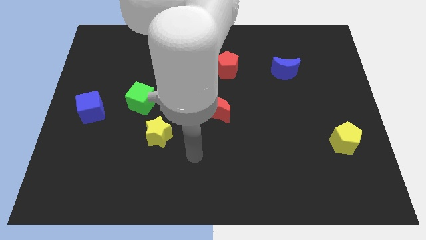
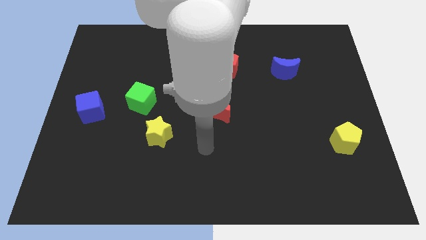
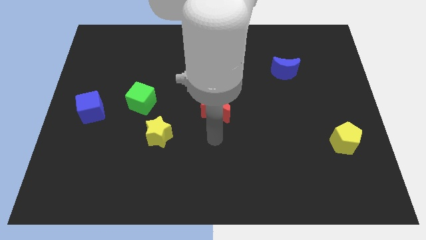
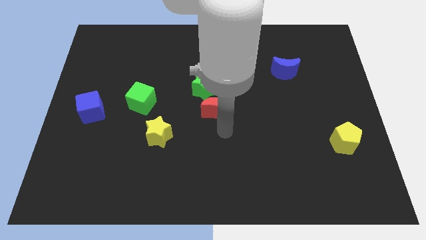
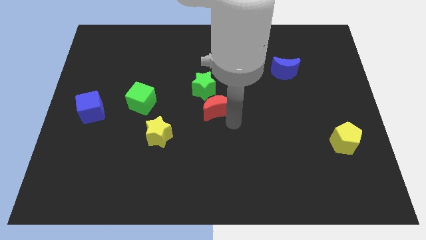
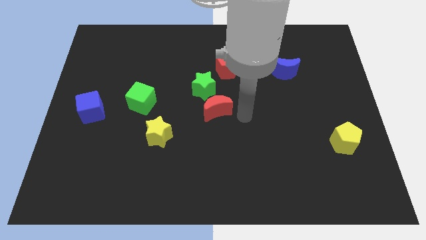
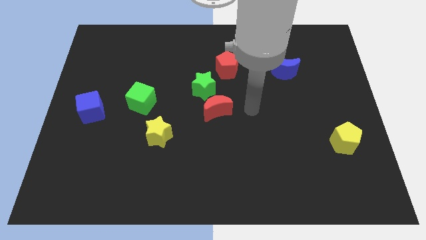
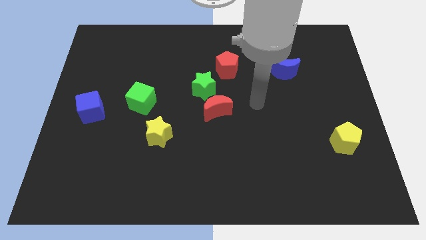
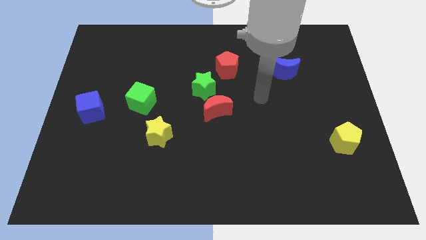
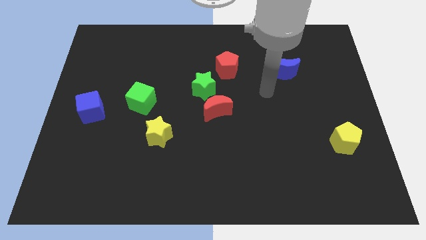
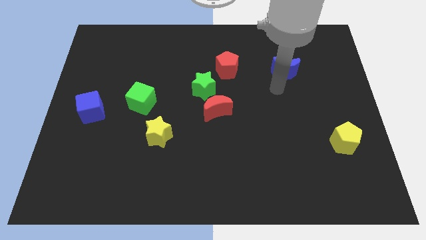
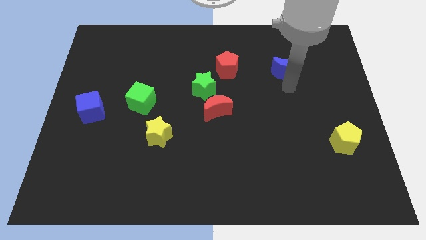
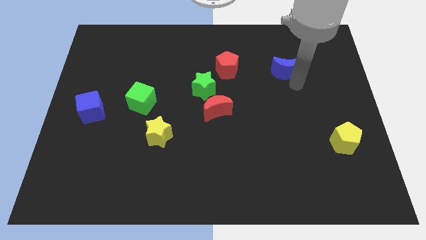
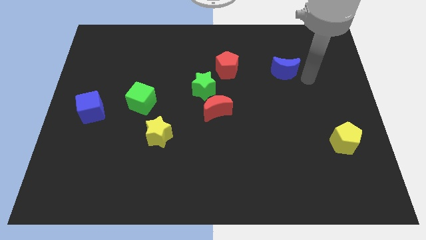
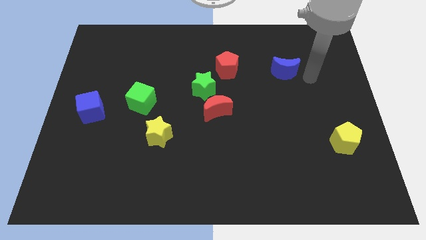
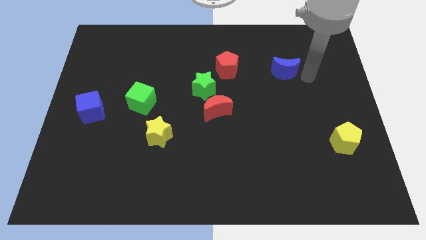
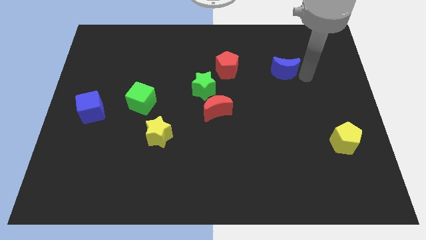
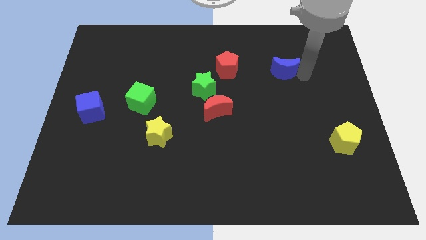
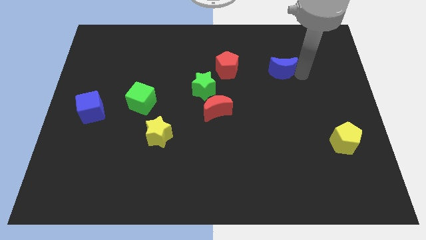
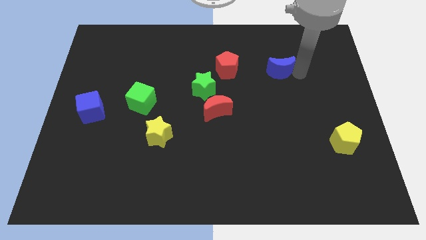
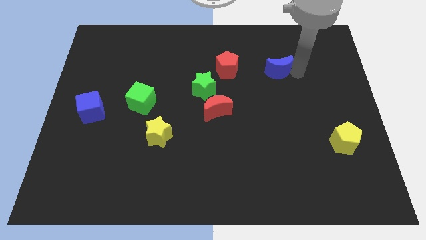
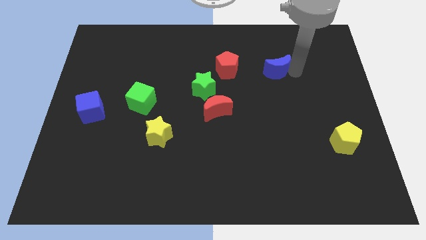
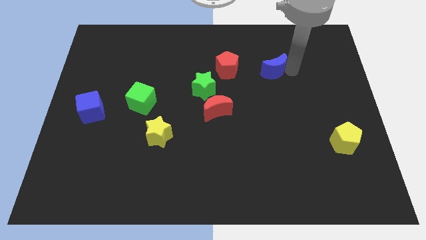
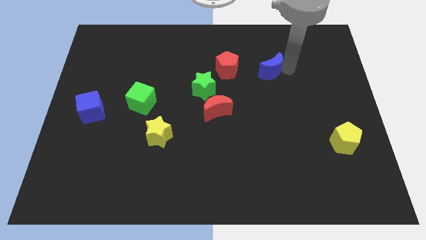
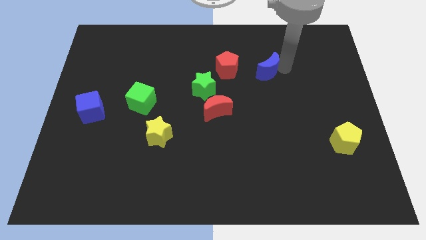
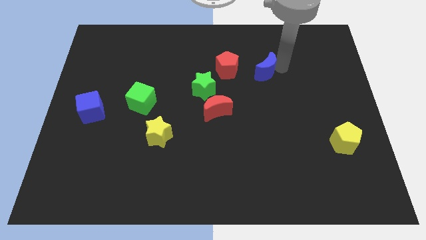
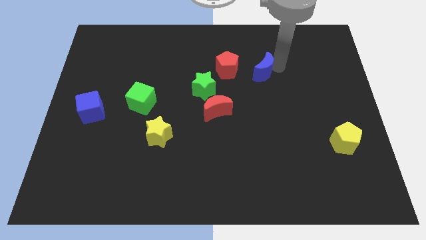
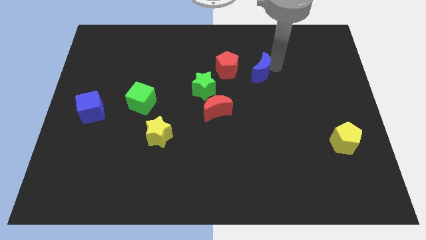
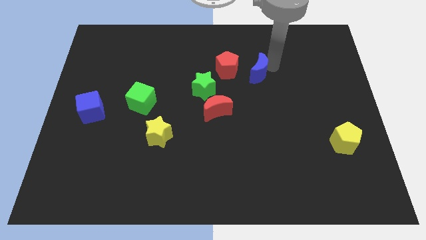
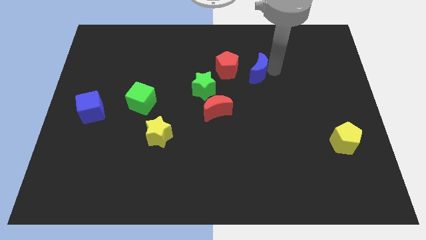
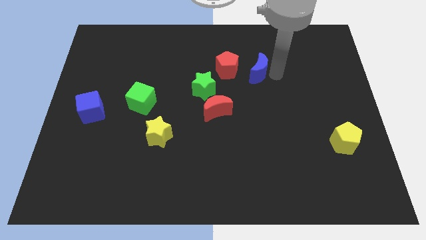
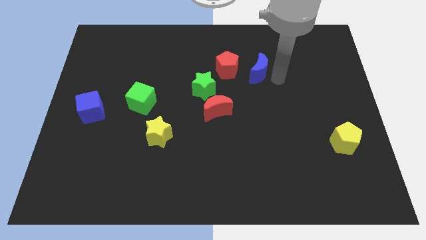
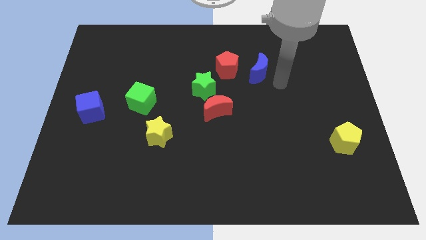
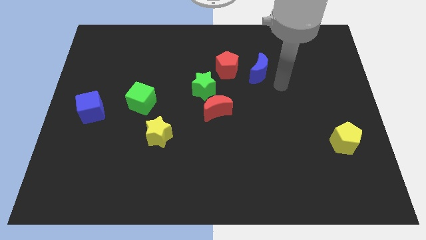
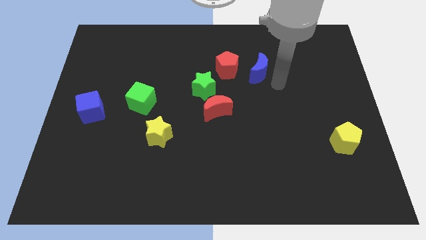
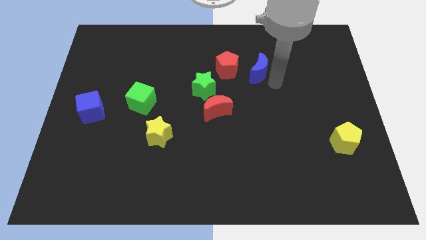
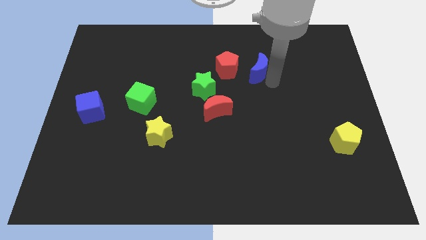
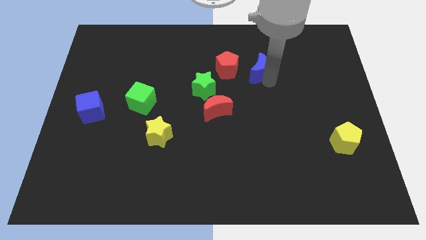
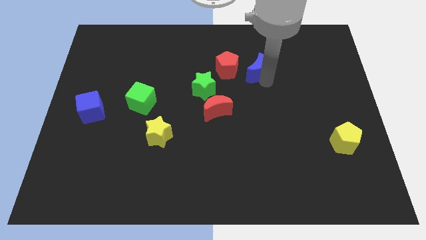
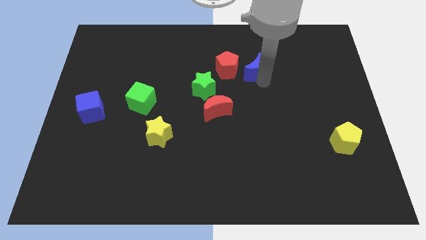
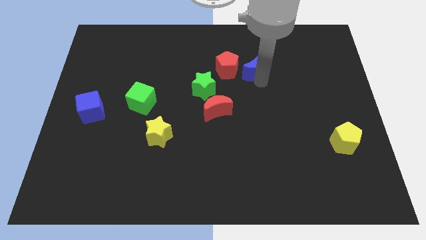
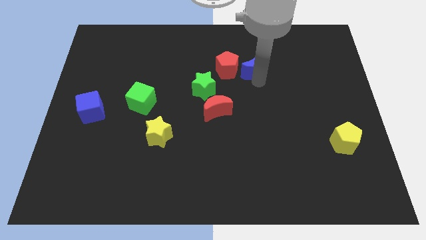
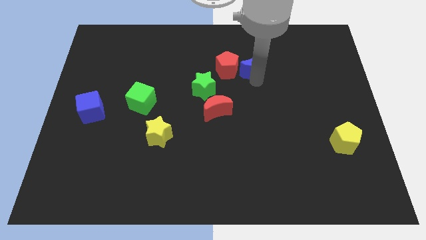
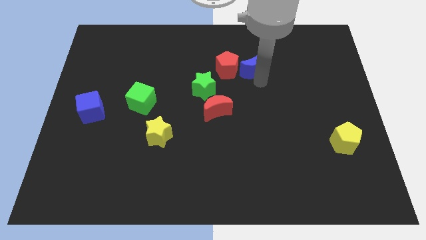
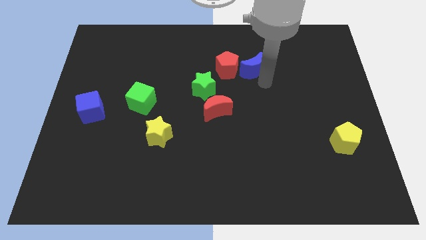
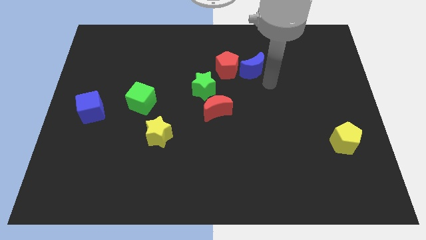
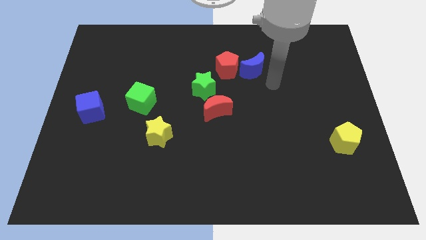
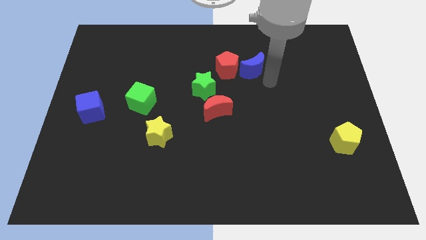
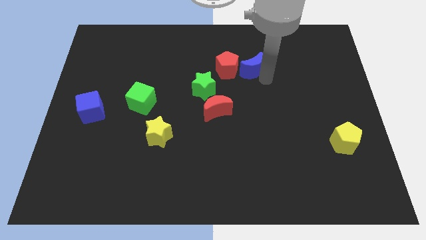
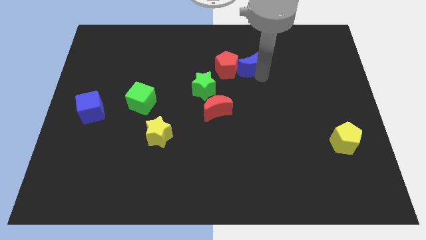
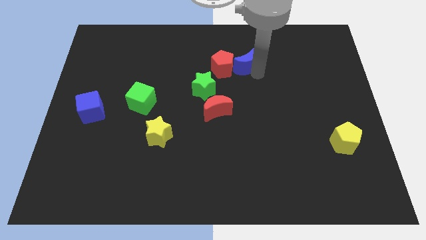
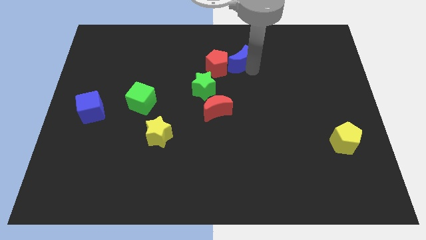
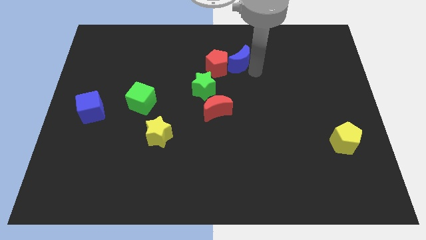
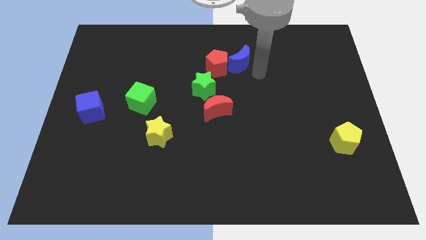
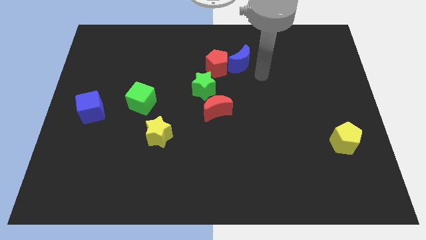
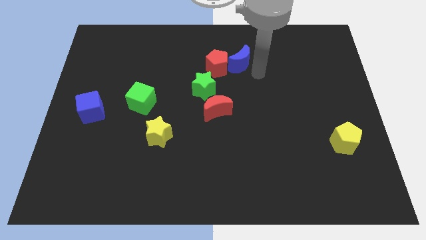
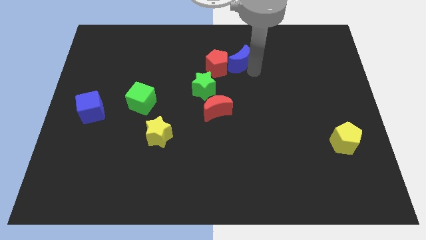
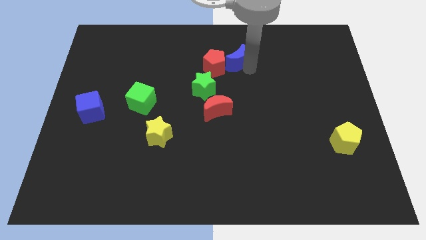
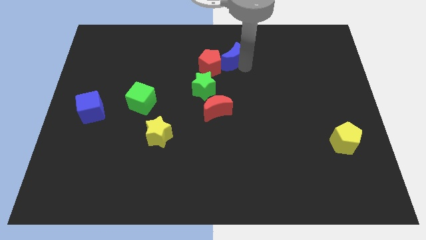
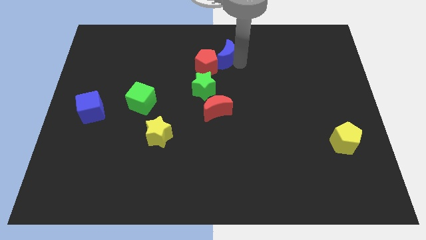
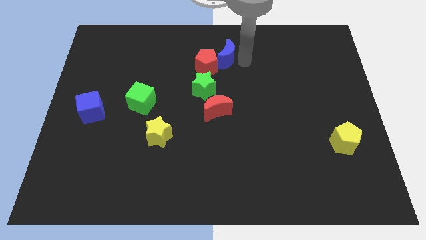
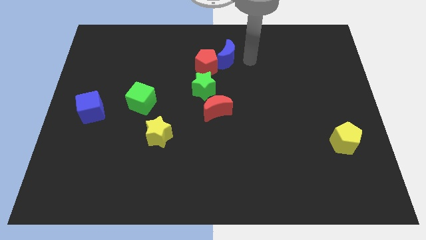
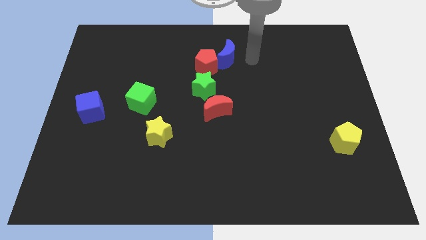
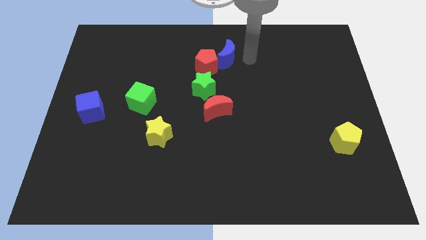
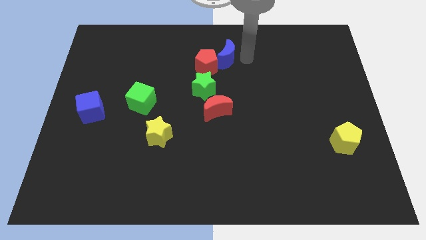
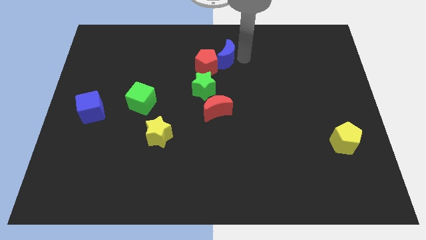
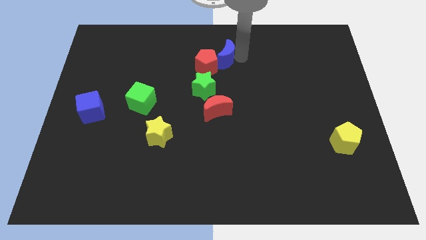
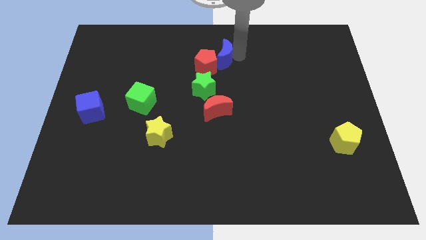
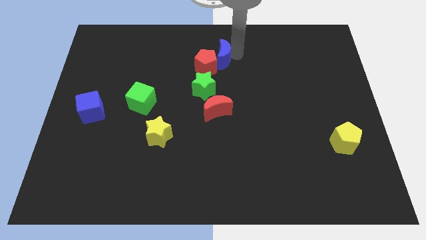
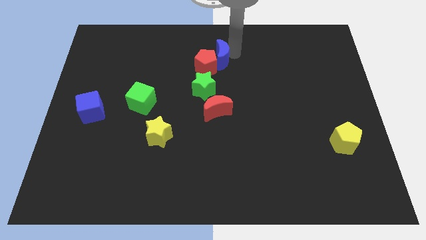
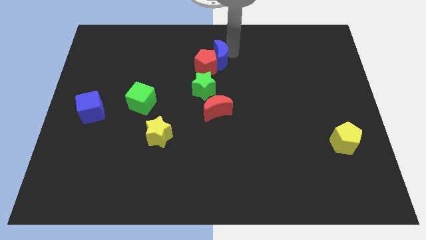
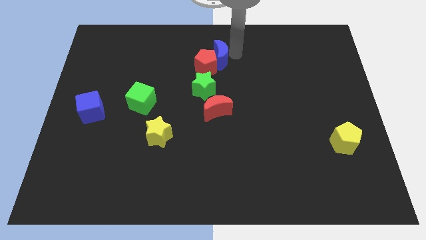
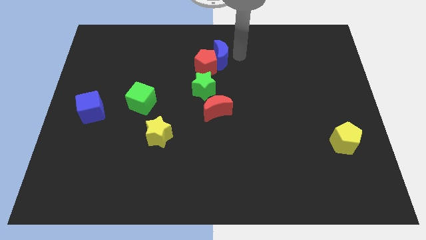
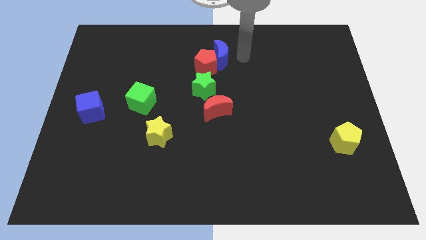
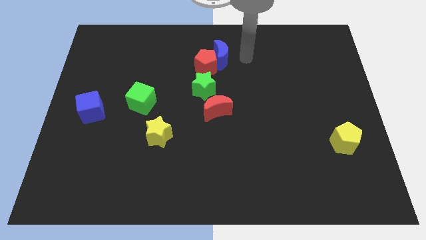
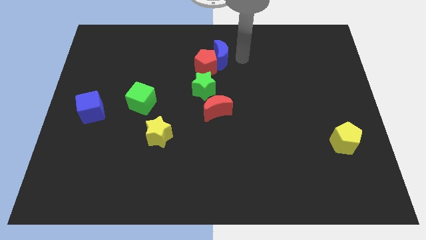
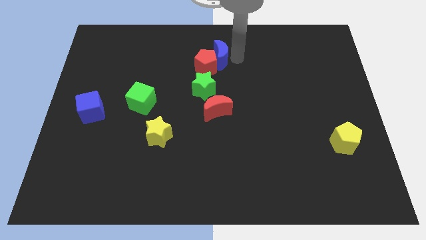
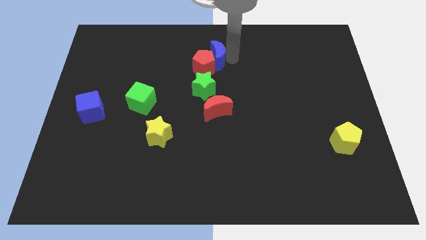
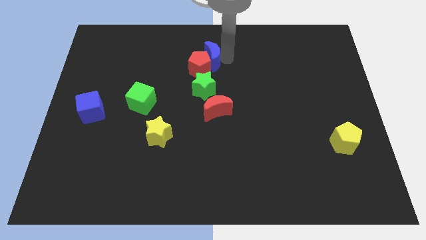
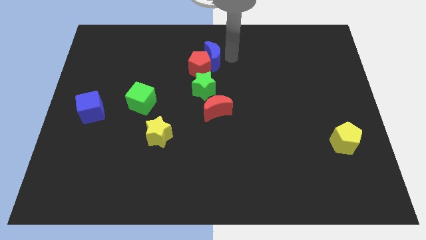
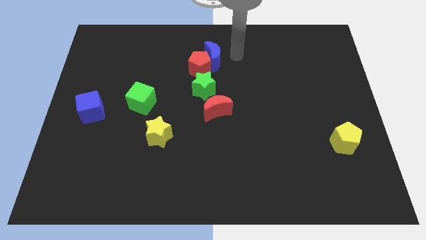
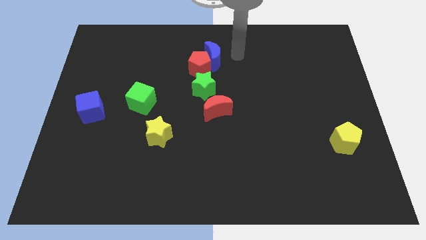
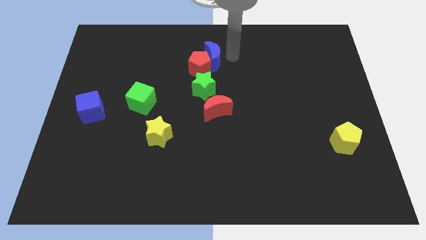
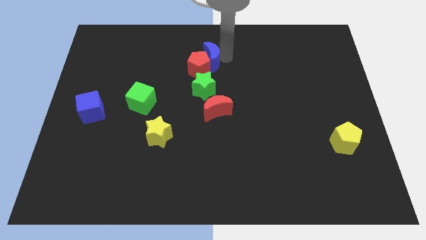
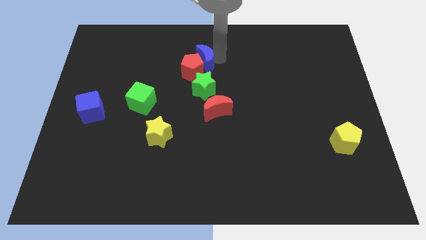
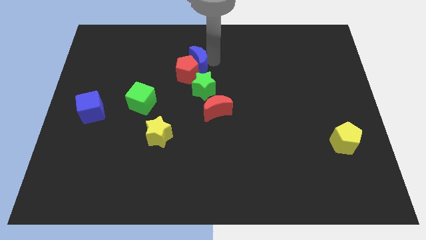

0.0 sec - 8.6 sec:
slide the blue moon left
